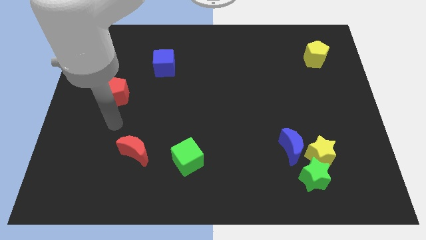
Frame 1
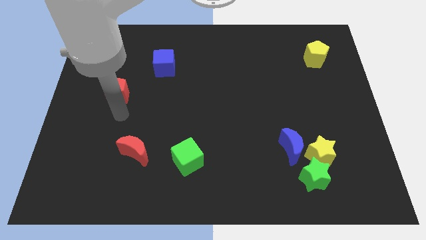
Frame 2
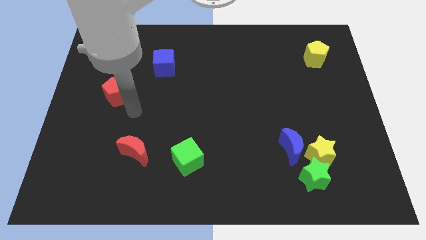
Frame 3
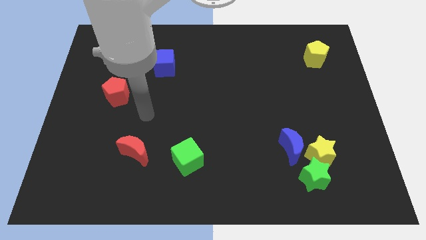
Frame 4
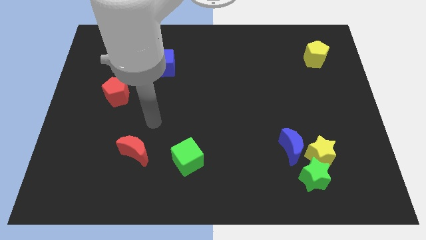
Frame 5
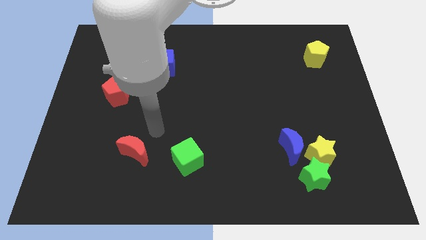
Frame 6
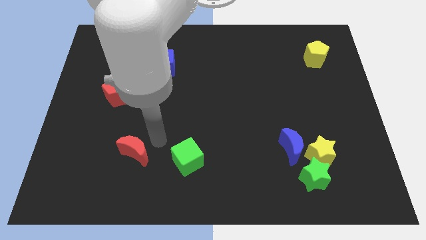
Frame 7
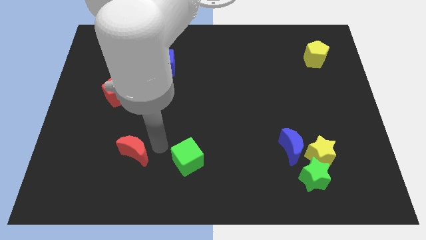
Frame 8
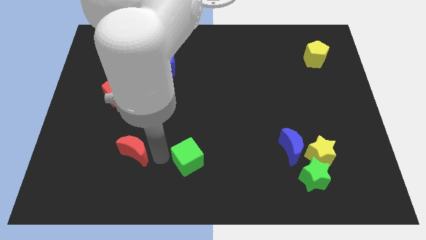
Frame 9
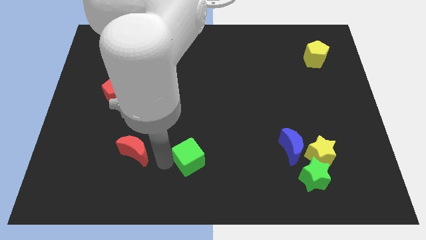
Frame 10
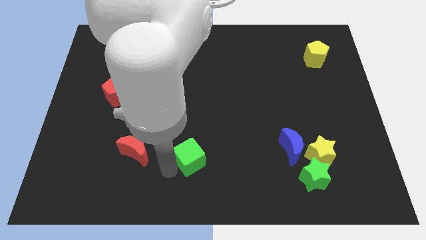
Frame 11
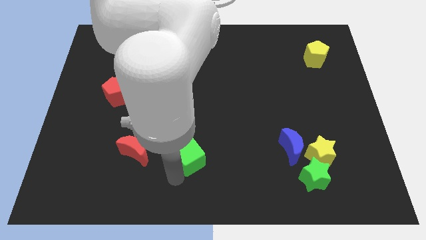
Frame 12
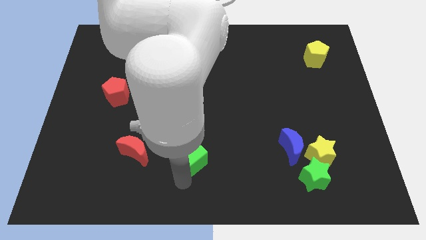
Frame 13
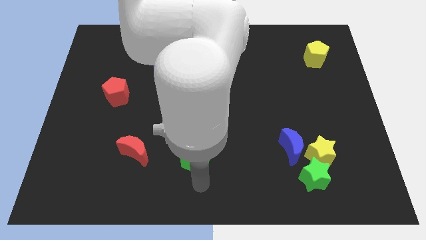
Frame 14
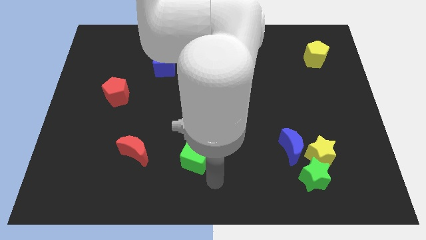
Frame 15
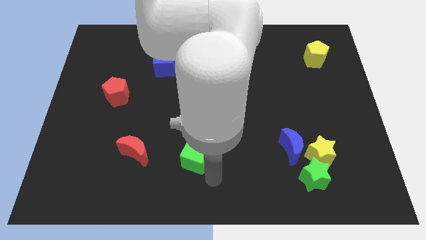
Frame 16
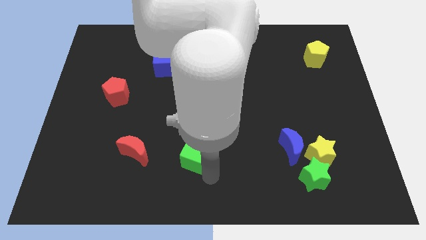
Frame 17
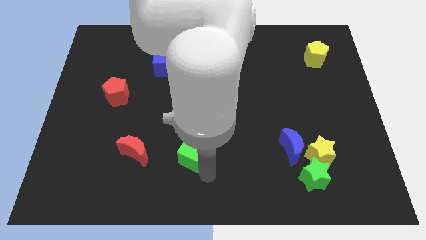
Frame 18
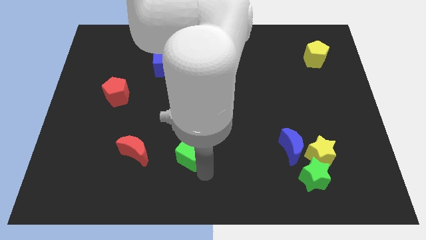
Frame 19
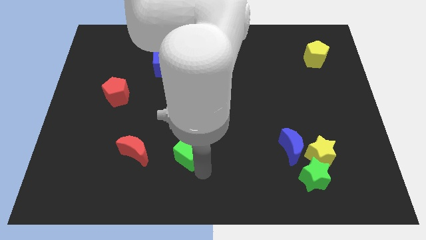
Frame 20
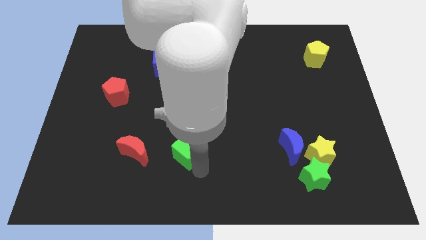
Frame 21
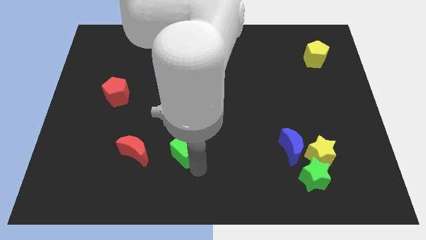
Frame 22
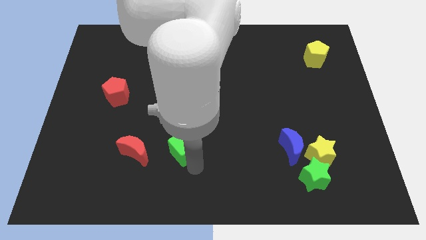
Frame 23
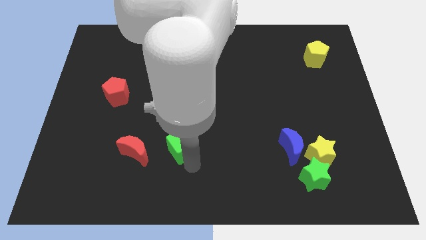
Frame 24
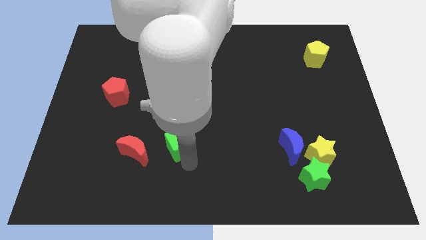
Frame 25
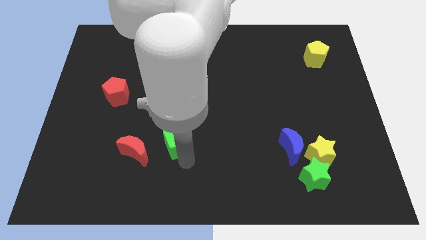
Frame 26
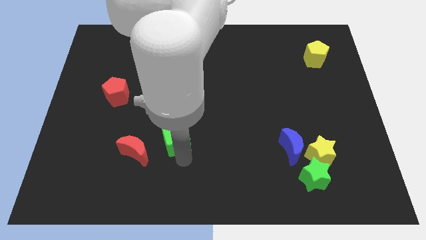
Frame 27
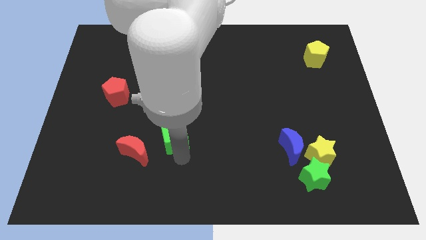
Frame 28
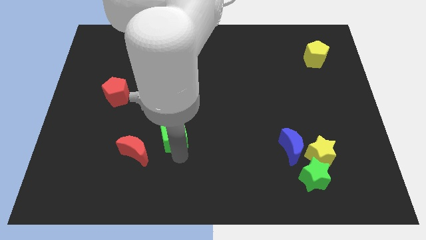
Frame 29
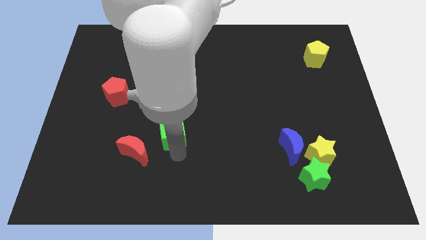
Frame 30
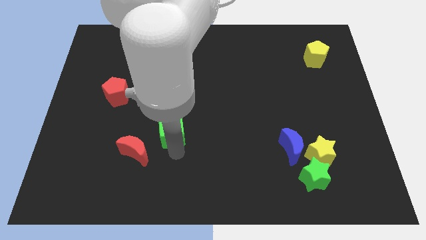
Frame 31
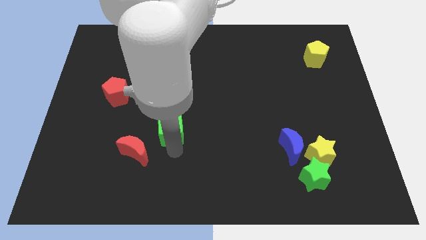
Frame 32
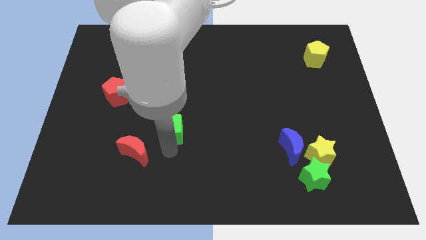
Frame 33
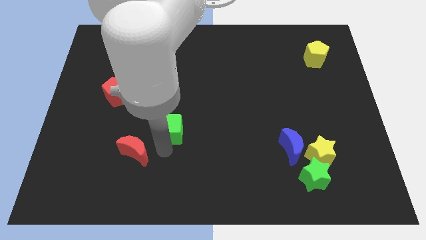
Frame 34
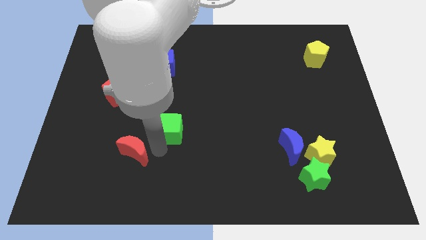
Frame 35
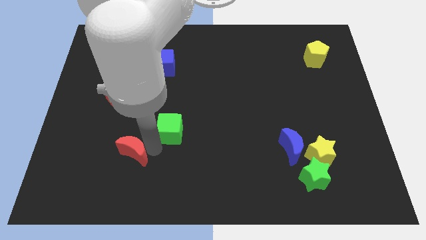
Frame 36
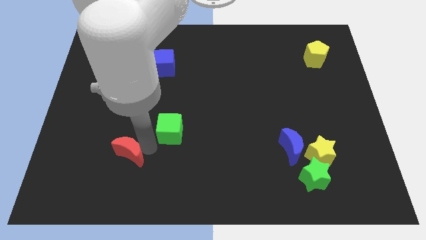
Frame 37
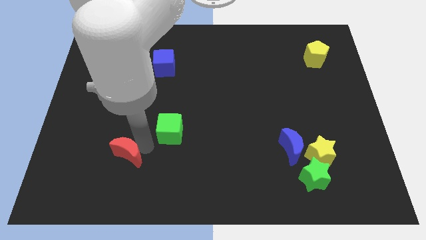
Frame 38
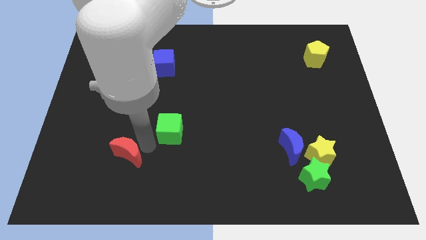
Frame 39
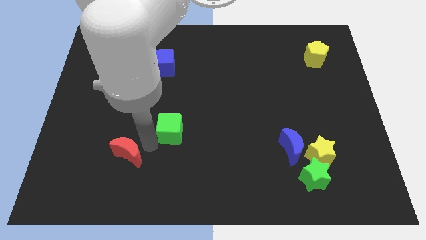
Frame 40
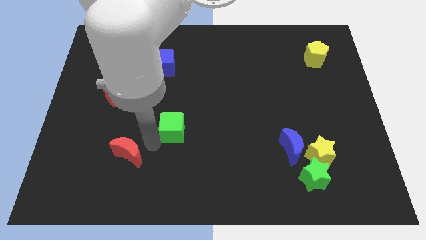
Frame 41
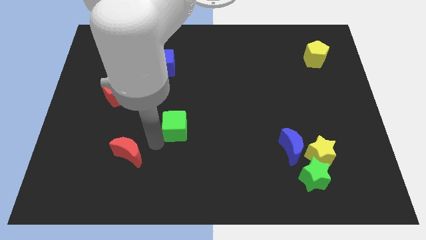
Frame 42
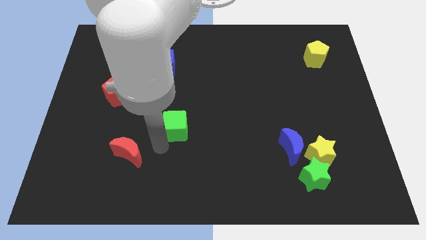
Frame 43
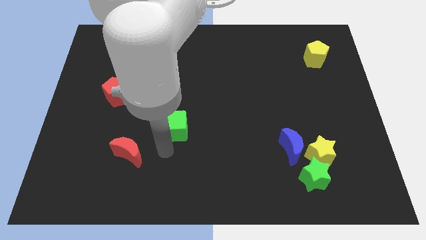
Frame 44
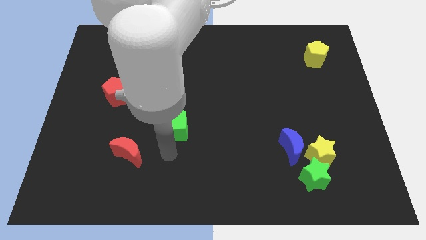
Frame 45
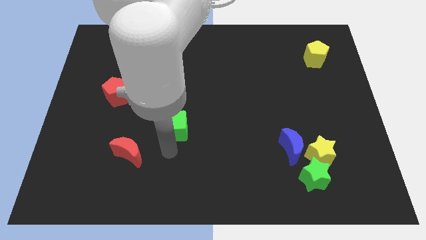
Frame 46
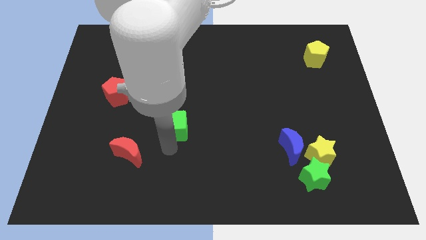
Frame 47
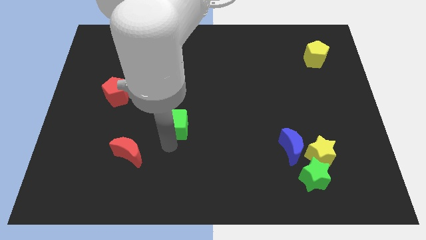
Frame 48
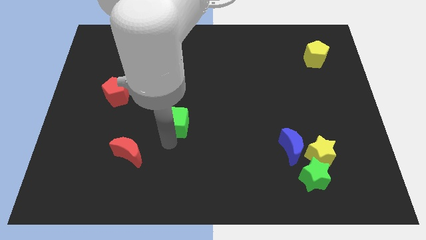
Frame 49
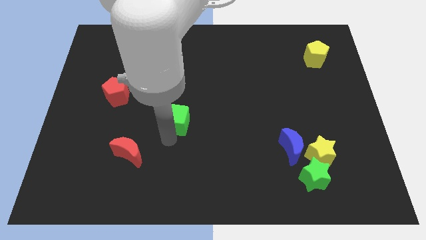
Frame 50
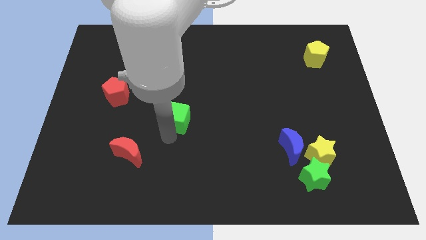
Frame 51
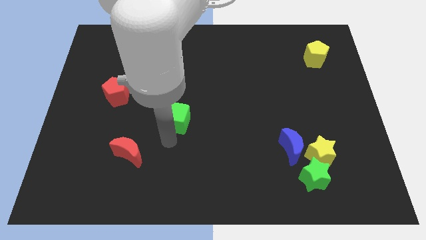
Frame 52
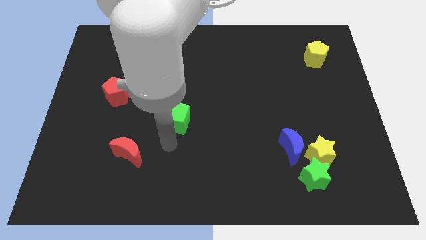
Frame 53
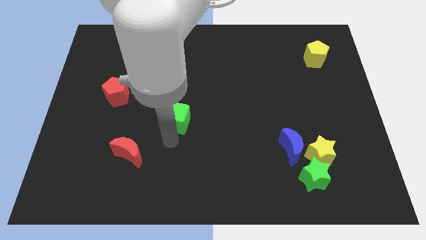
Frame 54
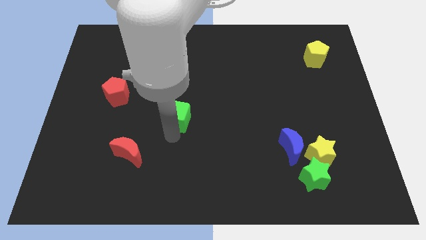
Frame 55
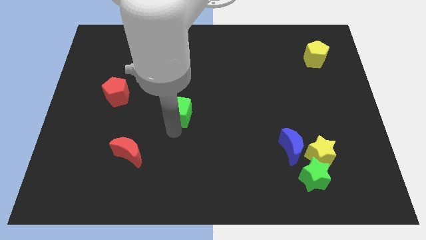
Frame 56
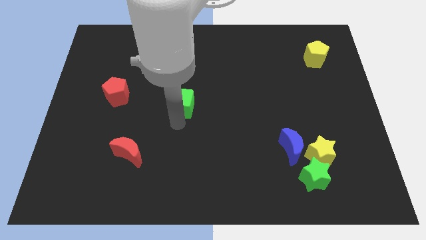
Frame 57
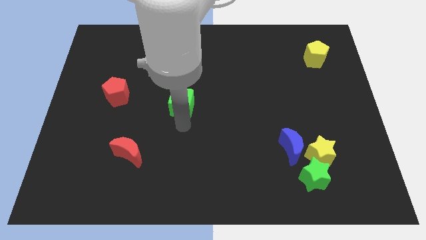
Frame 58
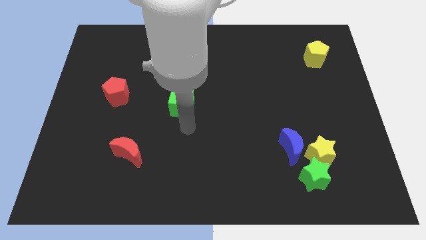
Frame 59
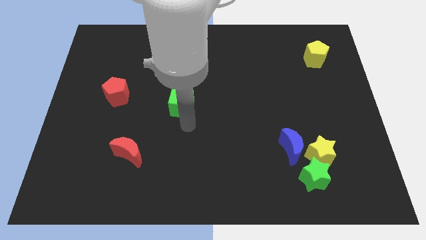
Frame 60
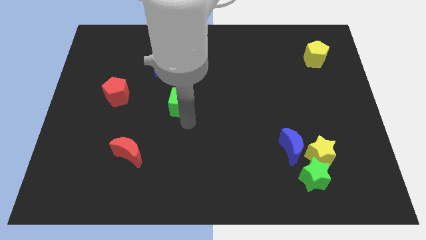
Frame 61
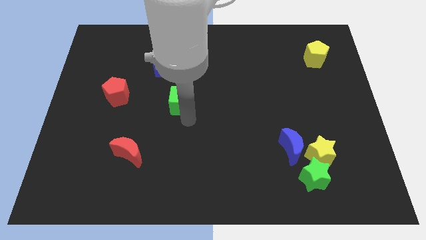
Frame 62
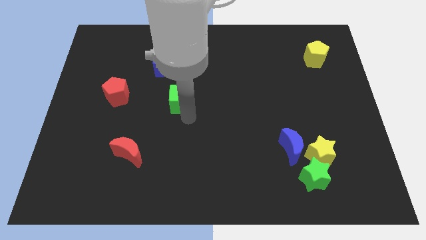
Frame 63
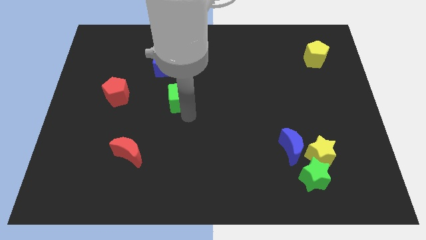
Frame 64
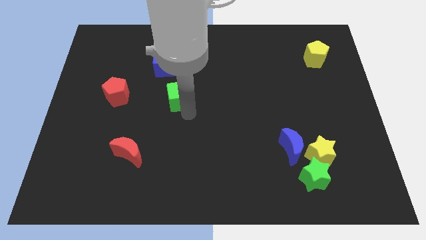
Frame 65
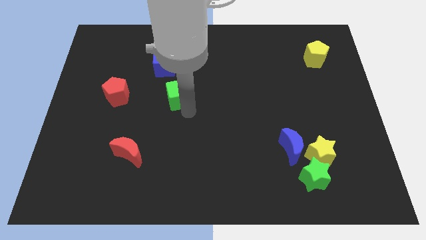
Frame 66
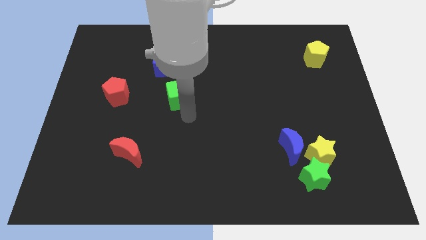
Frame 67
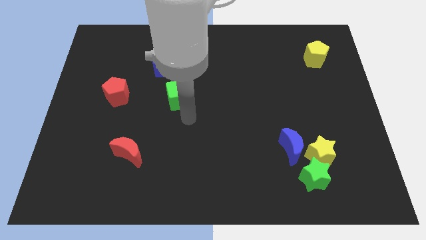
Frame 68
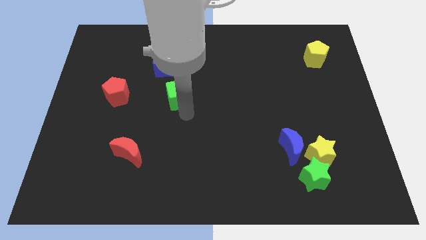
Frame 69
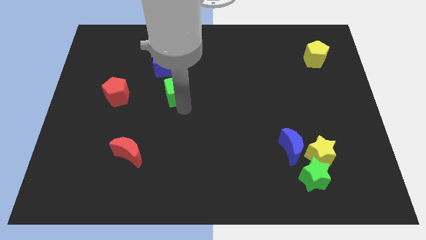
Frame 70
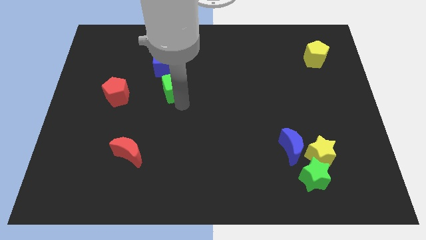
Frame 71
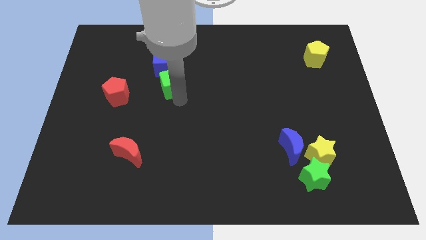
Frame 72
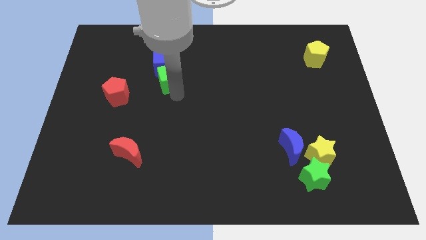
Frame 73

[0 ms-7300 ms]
put the green cube to the blue cube
